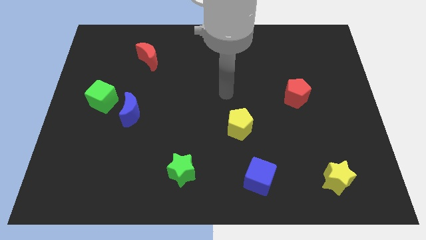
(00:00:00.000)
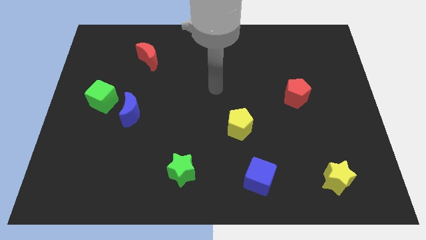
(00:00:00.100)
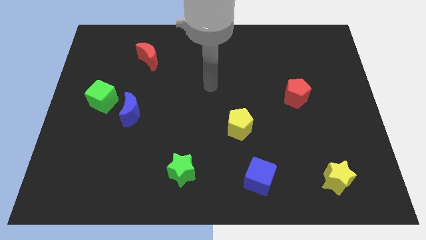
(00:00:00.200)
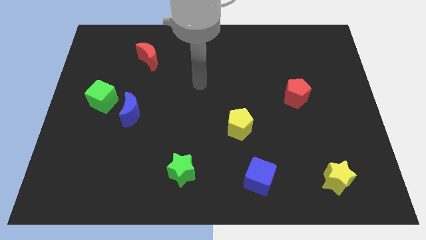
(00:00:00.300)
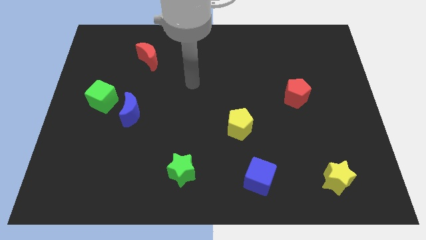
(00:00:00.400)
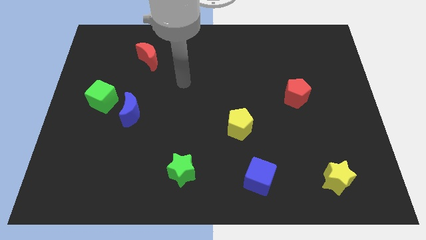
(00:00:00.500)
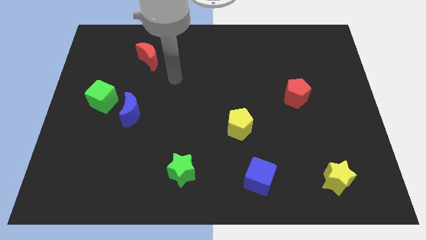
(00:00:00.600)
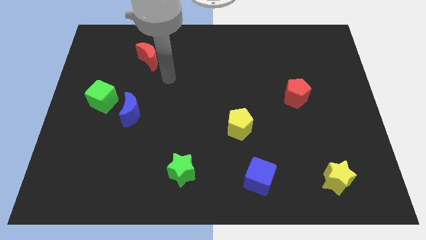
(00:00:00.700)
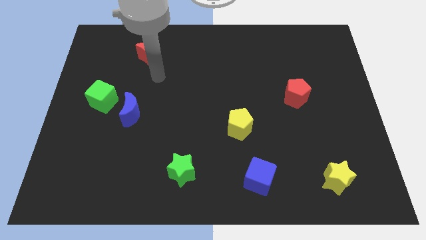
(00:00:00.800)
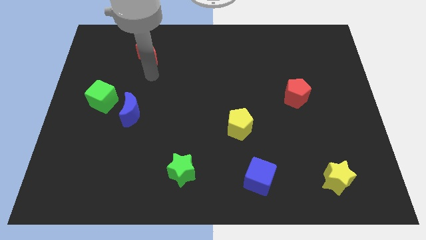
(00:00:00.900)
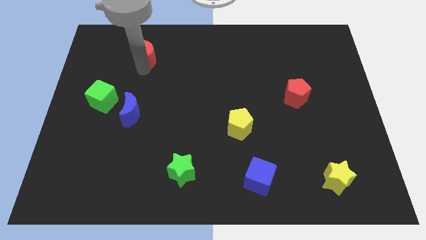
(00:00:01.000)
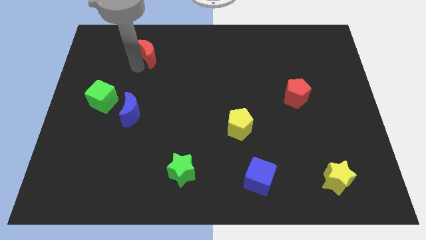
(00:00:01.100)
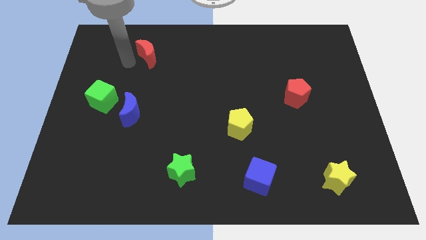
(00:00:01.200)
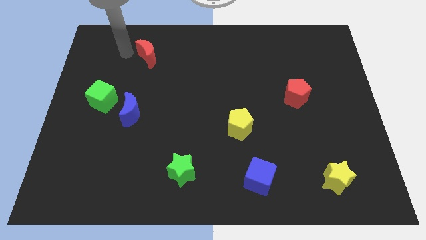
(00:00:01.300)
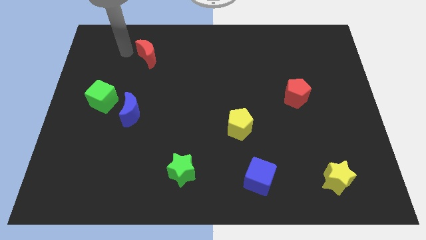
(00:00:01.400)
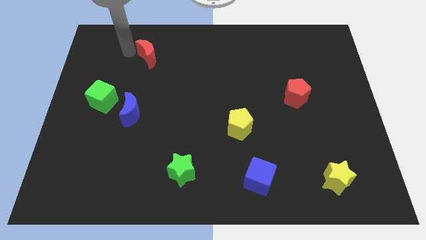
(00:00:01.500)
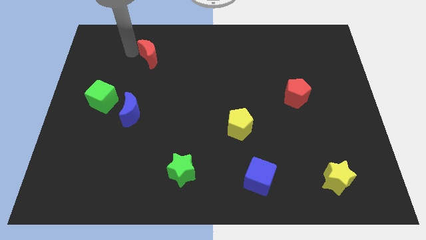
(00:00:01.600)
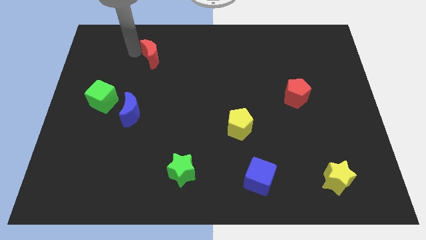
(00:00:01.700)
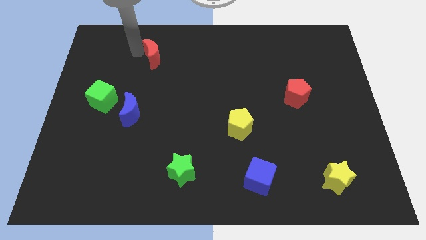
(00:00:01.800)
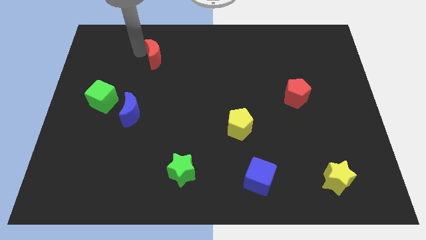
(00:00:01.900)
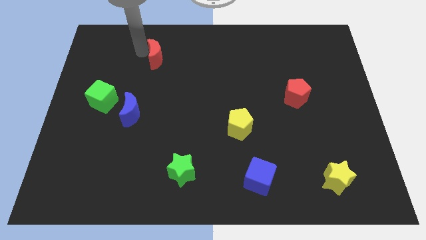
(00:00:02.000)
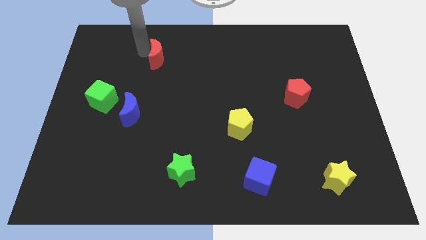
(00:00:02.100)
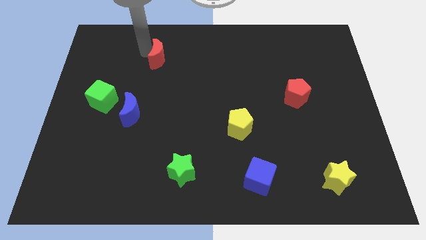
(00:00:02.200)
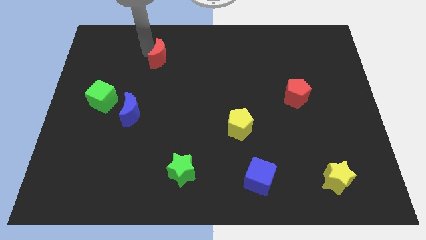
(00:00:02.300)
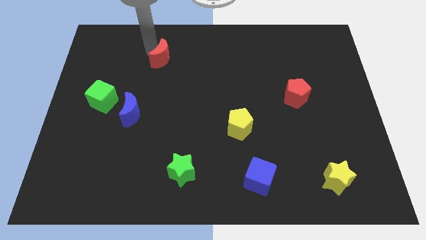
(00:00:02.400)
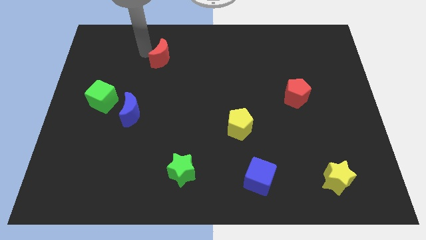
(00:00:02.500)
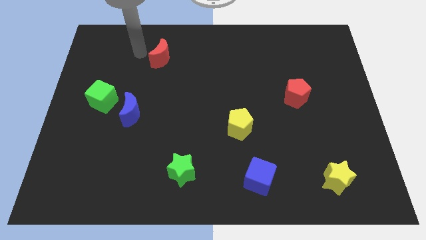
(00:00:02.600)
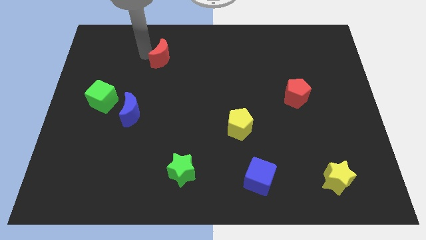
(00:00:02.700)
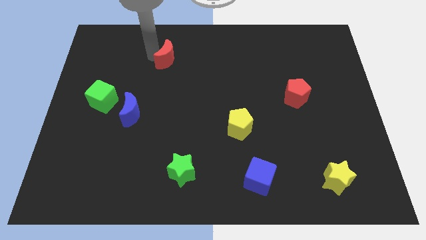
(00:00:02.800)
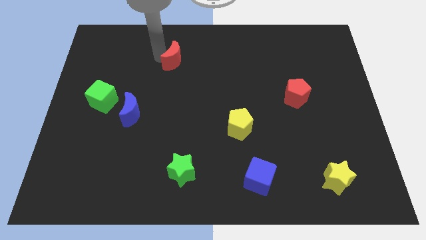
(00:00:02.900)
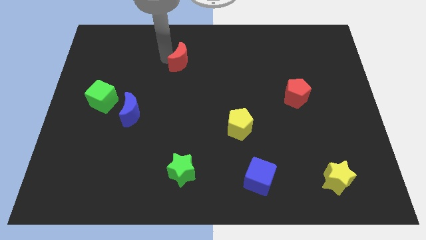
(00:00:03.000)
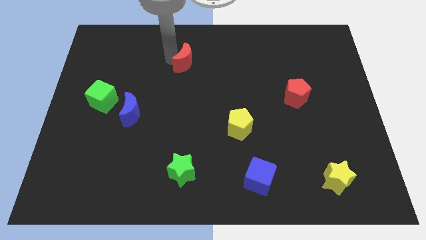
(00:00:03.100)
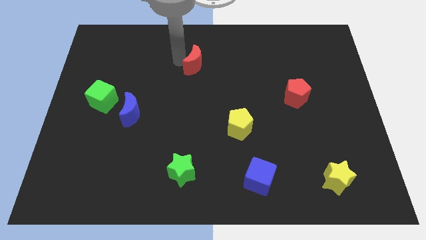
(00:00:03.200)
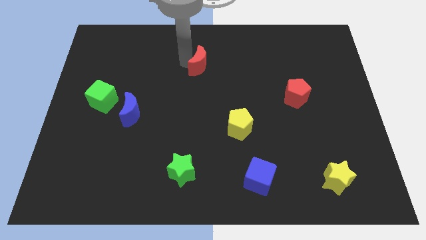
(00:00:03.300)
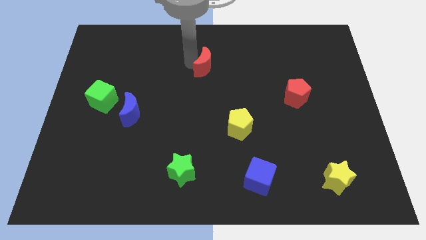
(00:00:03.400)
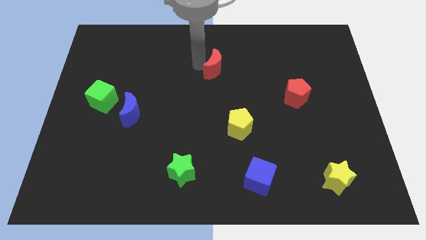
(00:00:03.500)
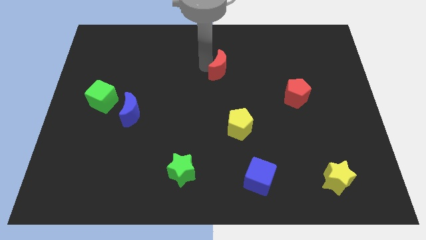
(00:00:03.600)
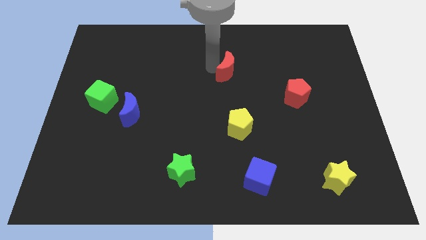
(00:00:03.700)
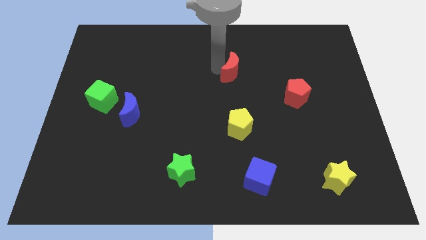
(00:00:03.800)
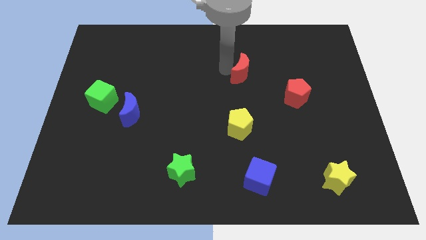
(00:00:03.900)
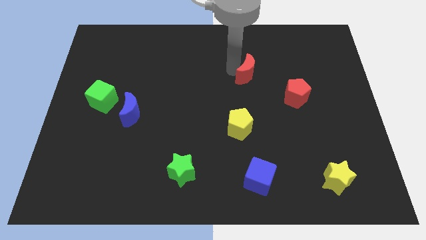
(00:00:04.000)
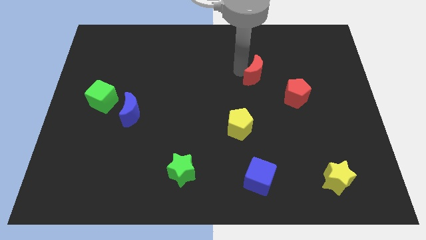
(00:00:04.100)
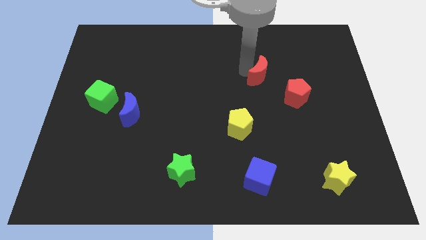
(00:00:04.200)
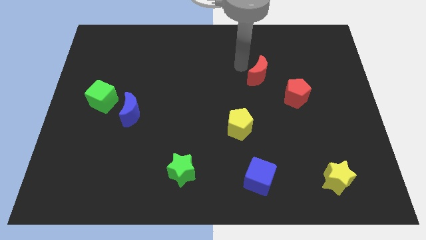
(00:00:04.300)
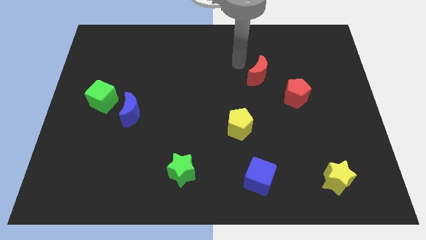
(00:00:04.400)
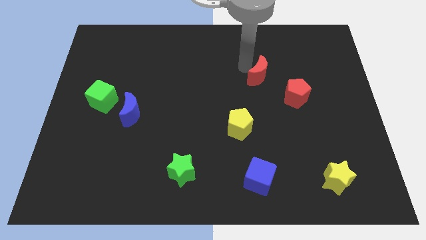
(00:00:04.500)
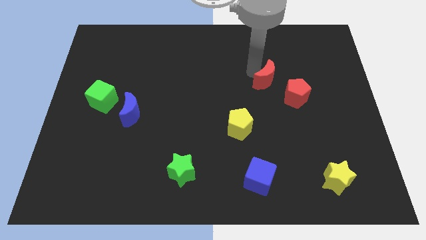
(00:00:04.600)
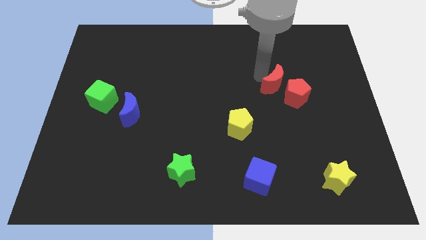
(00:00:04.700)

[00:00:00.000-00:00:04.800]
slide the red moon next to the red pentagon

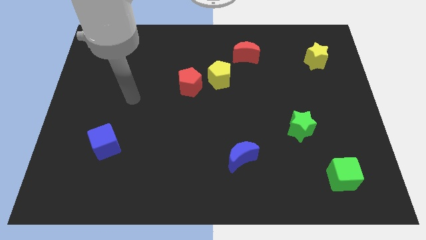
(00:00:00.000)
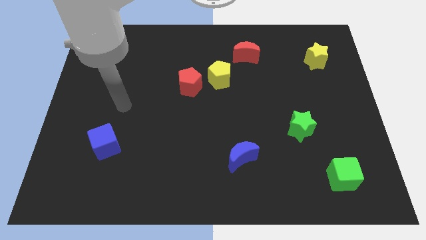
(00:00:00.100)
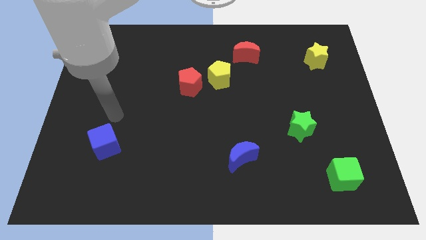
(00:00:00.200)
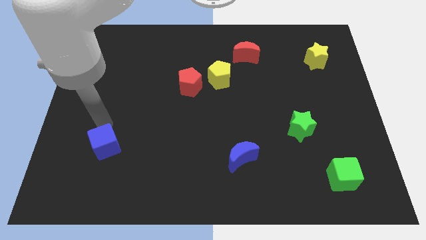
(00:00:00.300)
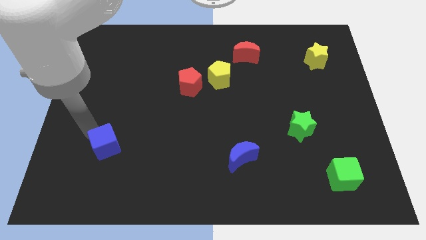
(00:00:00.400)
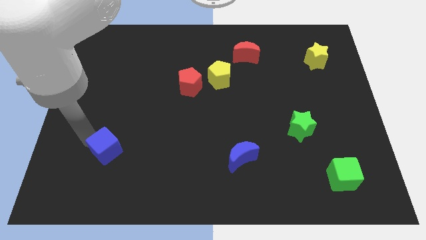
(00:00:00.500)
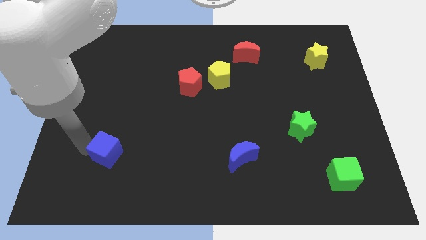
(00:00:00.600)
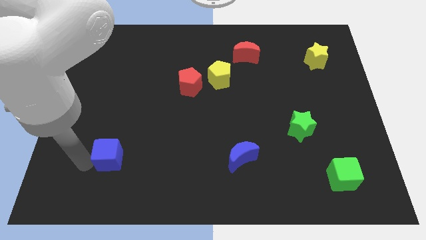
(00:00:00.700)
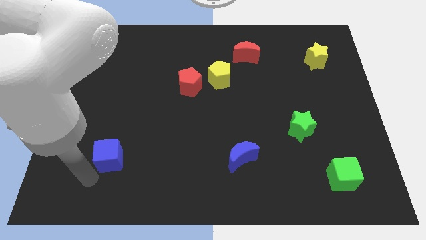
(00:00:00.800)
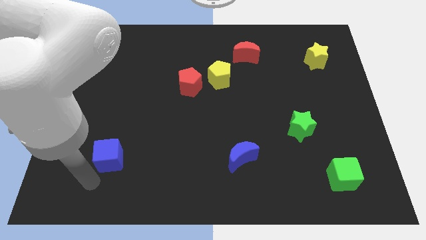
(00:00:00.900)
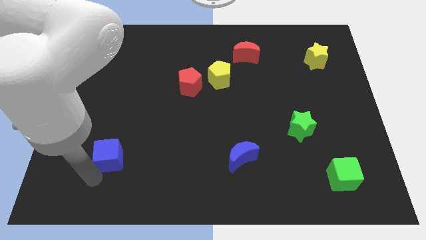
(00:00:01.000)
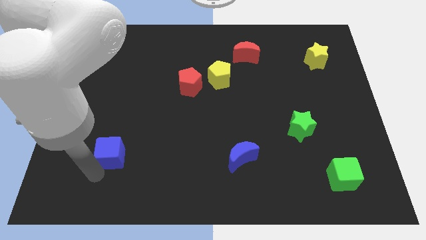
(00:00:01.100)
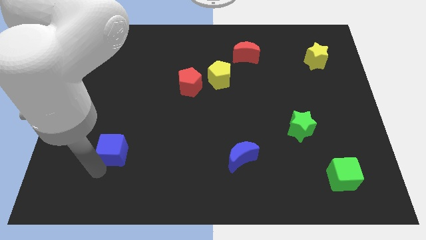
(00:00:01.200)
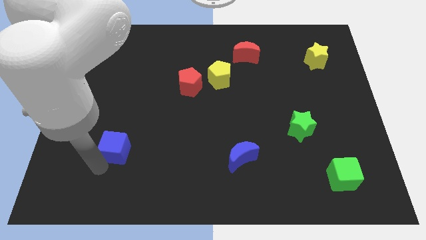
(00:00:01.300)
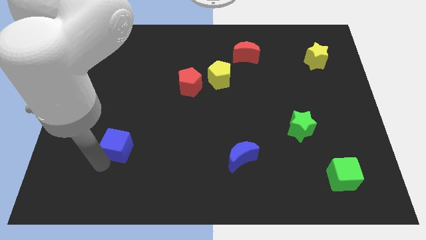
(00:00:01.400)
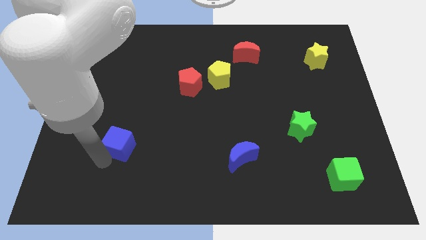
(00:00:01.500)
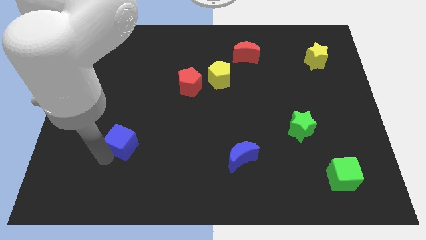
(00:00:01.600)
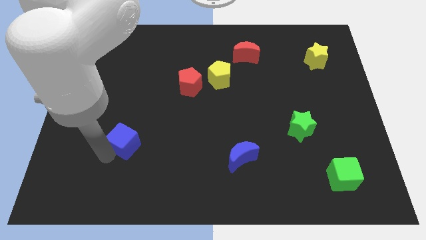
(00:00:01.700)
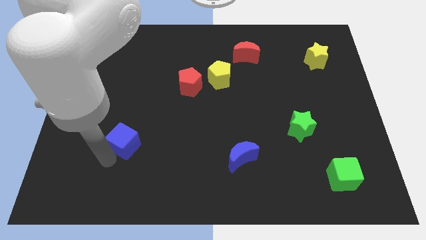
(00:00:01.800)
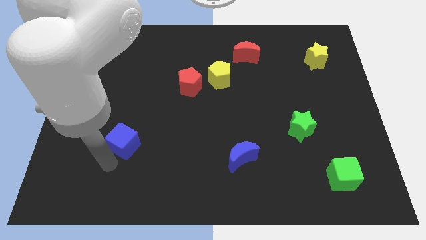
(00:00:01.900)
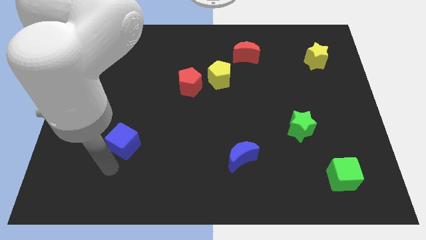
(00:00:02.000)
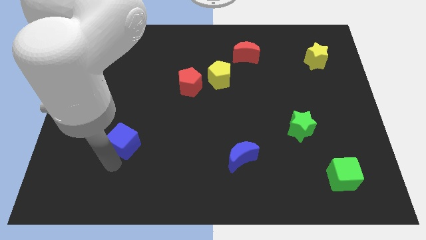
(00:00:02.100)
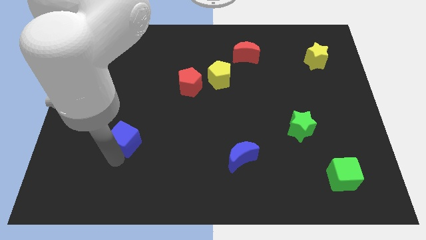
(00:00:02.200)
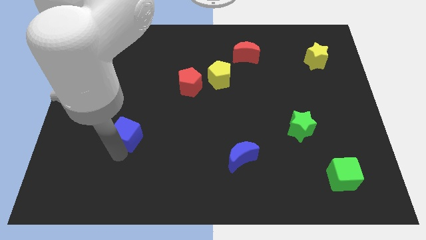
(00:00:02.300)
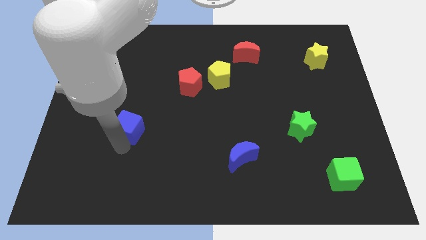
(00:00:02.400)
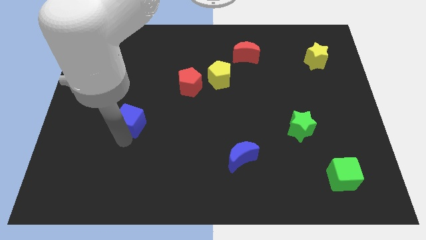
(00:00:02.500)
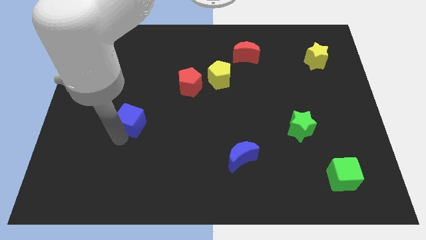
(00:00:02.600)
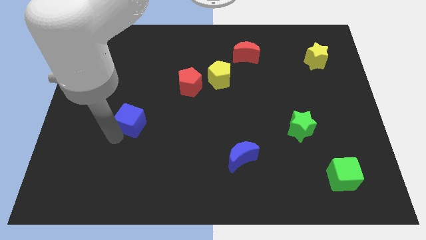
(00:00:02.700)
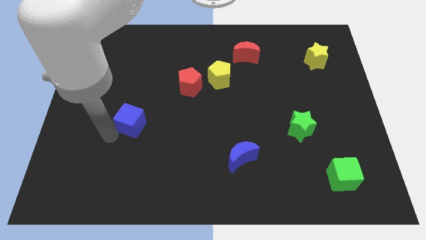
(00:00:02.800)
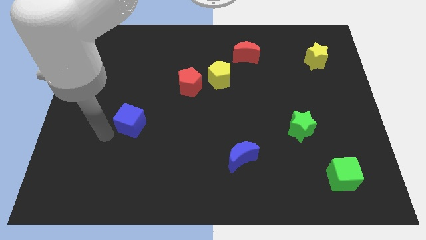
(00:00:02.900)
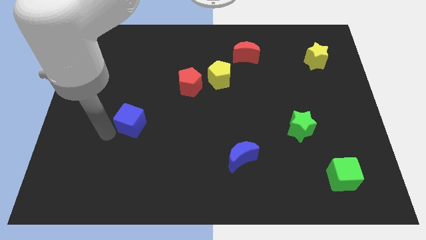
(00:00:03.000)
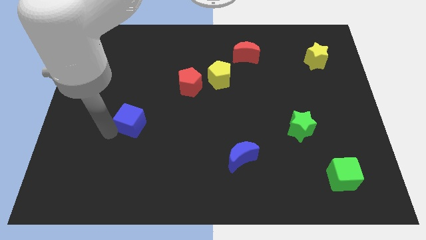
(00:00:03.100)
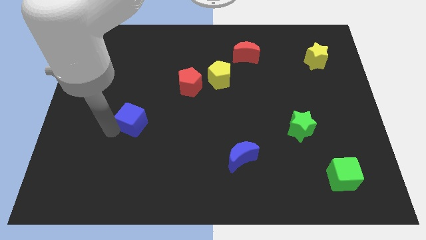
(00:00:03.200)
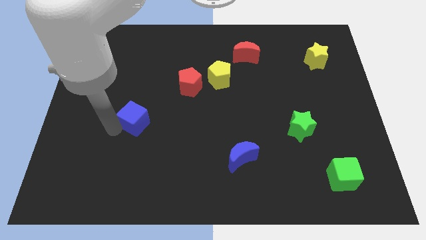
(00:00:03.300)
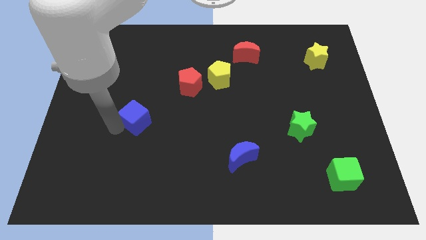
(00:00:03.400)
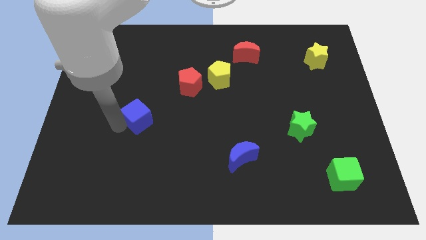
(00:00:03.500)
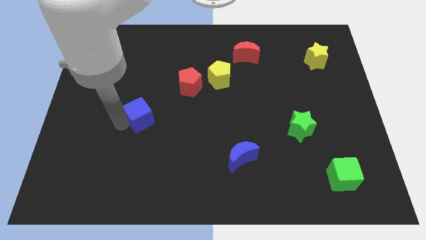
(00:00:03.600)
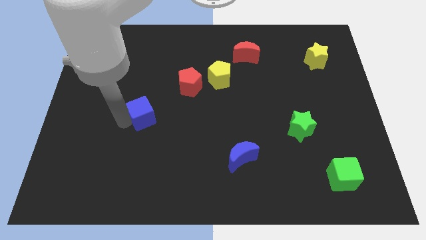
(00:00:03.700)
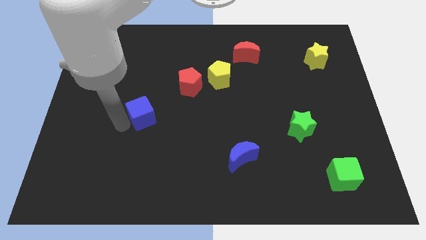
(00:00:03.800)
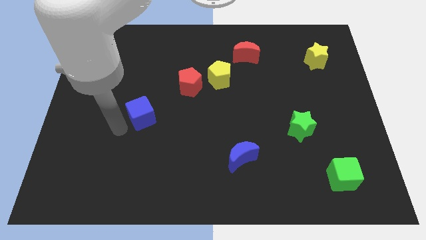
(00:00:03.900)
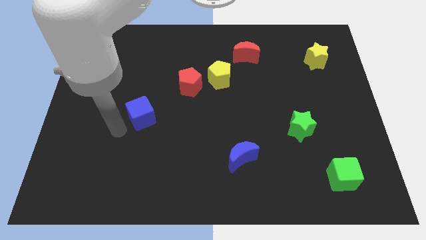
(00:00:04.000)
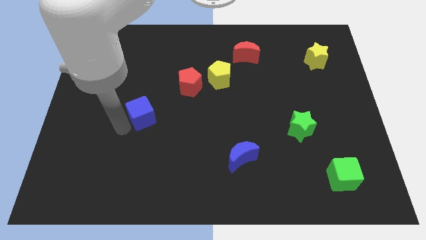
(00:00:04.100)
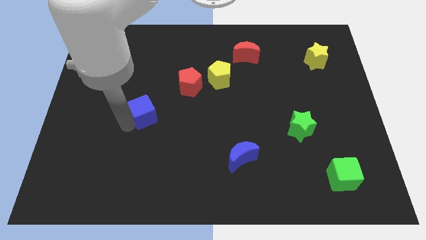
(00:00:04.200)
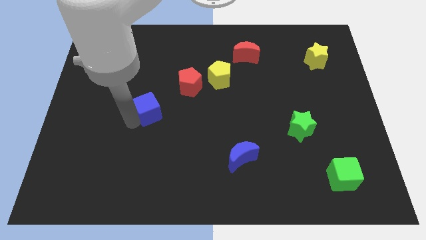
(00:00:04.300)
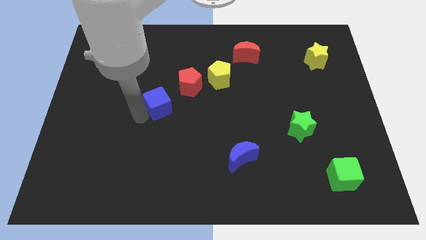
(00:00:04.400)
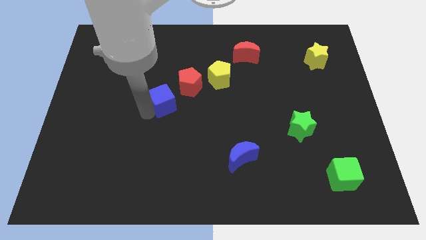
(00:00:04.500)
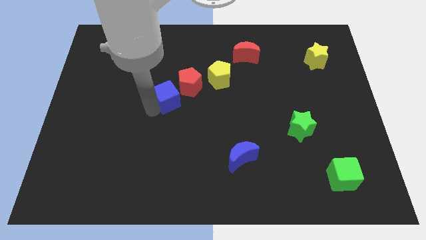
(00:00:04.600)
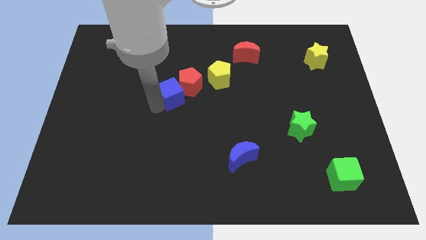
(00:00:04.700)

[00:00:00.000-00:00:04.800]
slide the blue cube to the red pentagon
